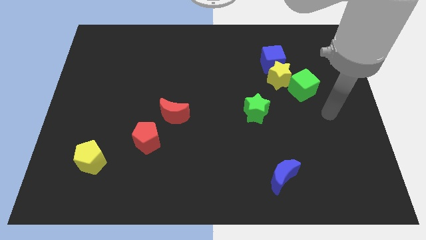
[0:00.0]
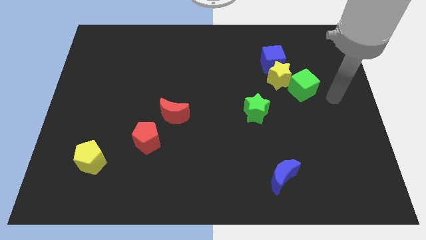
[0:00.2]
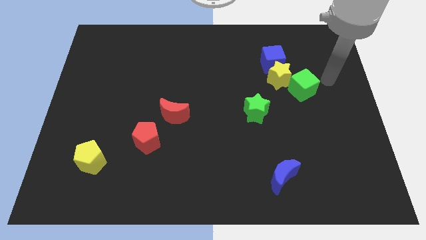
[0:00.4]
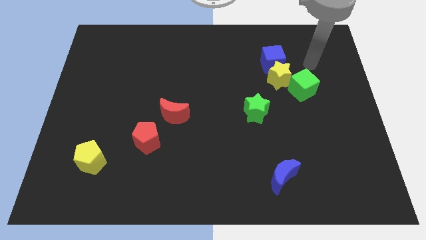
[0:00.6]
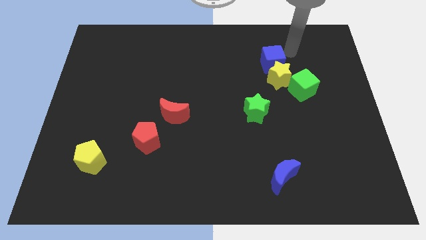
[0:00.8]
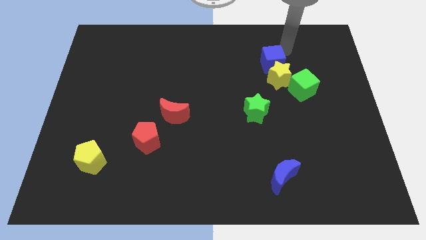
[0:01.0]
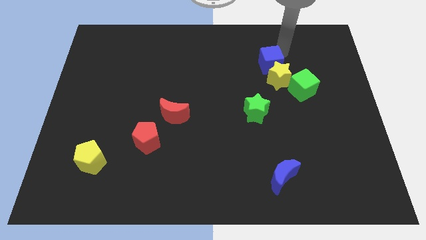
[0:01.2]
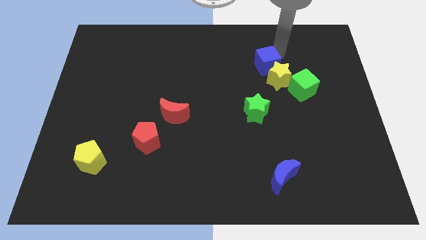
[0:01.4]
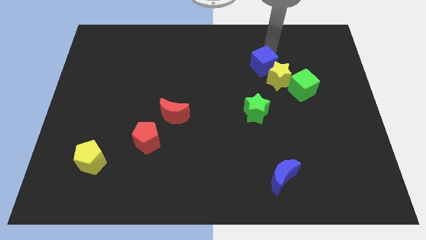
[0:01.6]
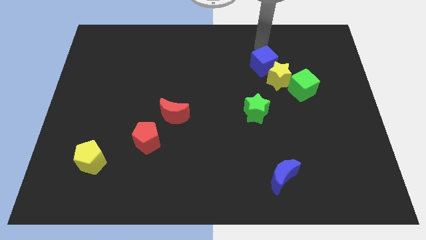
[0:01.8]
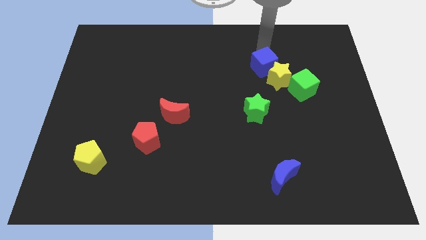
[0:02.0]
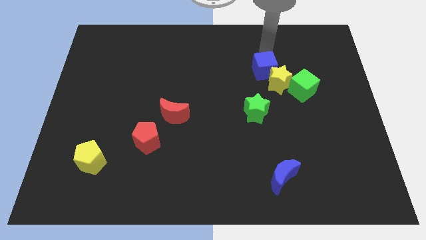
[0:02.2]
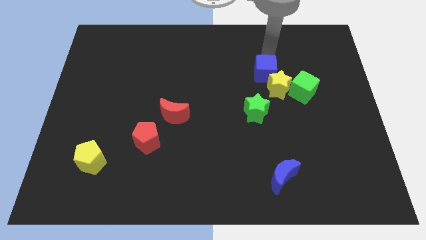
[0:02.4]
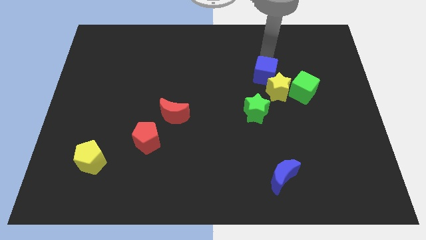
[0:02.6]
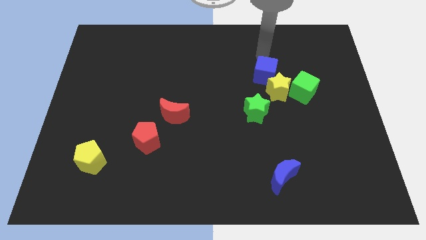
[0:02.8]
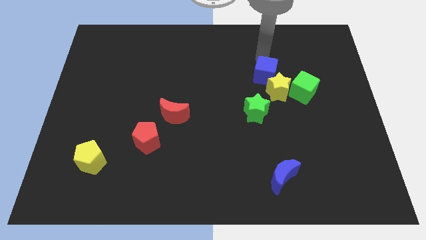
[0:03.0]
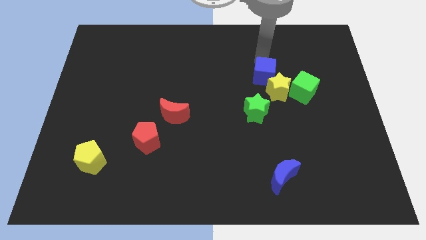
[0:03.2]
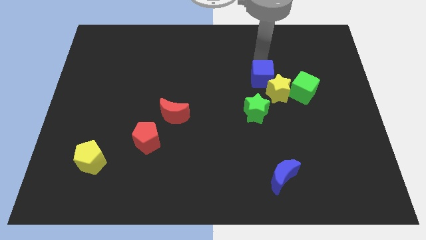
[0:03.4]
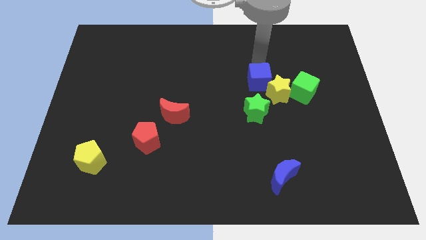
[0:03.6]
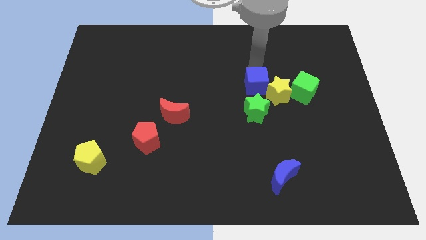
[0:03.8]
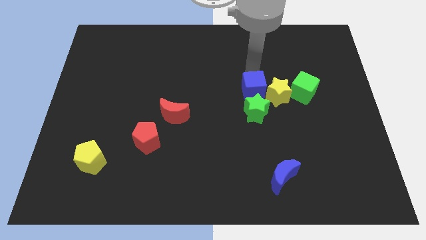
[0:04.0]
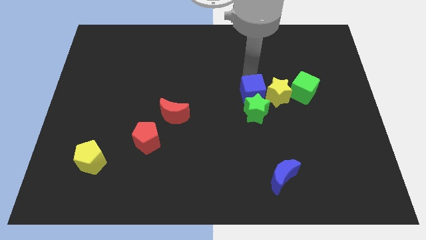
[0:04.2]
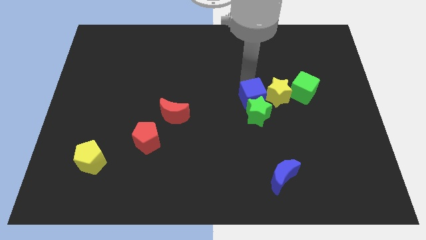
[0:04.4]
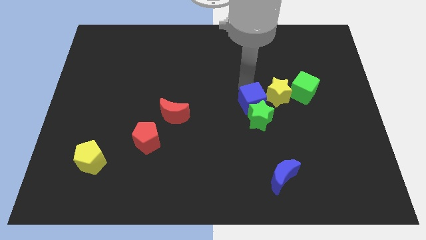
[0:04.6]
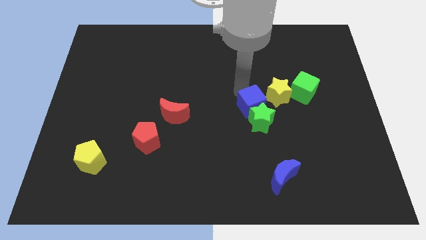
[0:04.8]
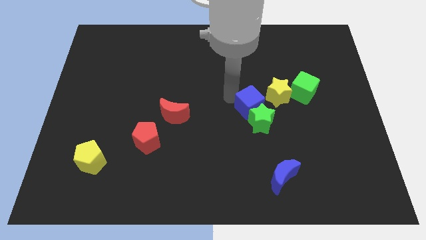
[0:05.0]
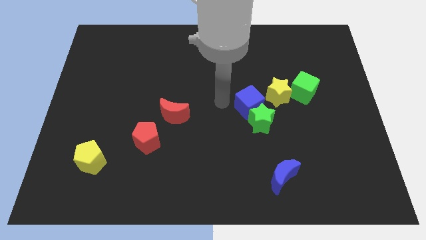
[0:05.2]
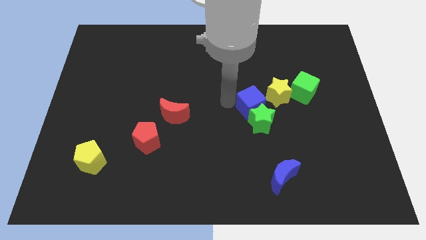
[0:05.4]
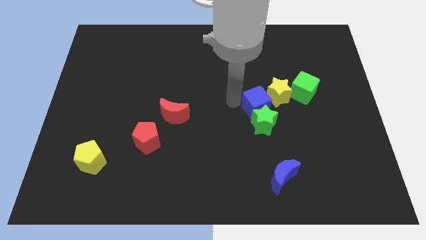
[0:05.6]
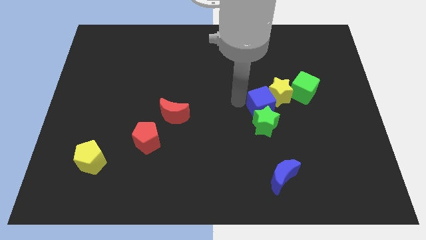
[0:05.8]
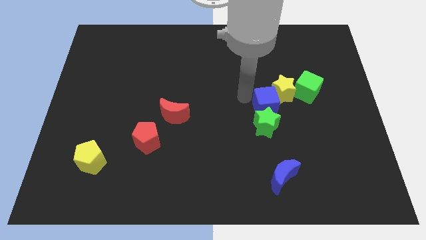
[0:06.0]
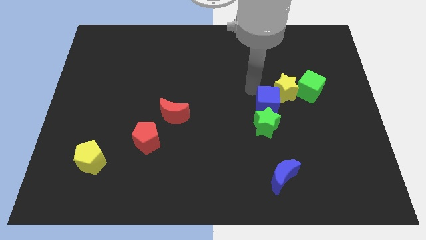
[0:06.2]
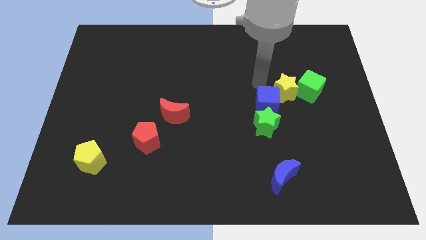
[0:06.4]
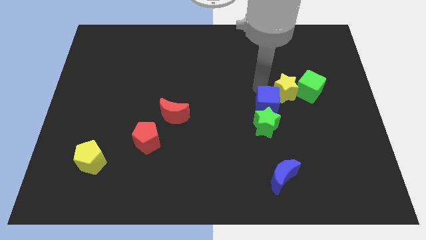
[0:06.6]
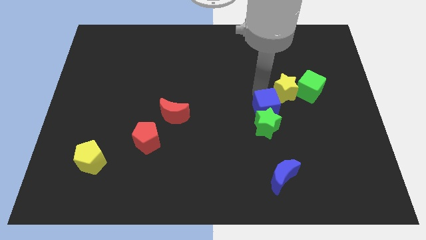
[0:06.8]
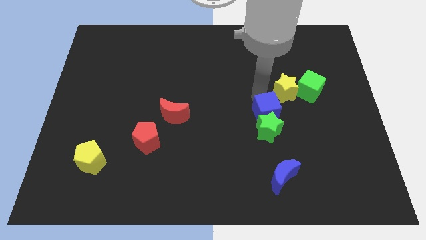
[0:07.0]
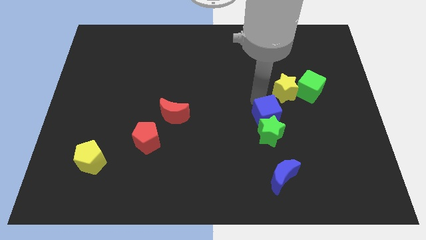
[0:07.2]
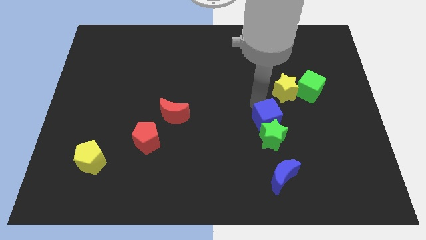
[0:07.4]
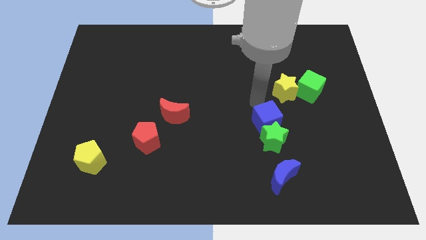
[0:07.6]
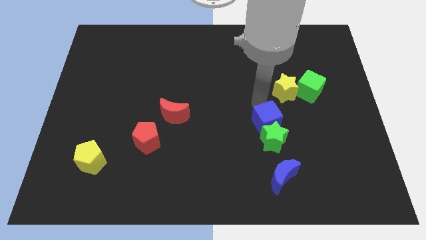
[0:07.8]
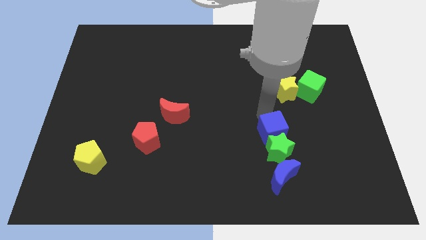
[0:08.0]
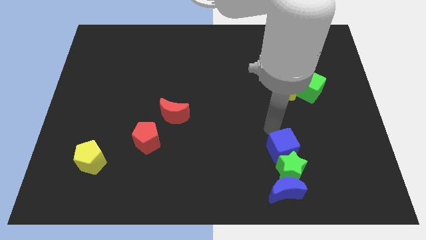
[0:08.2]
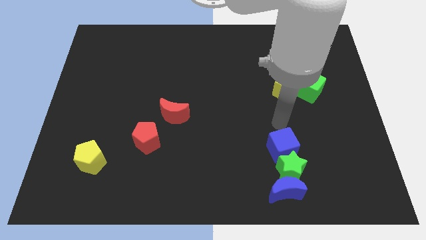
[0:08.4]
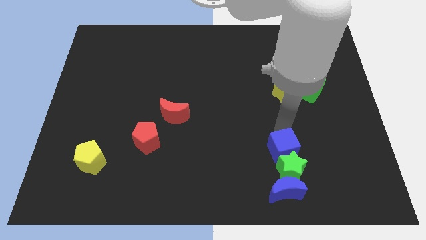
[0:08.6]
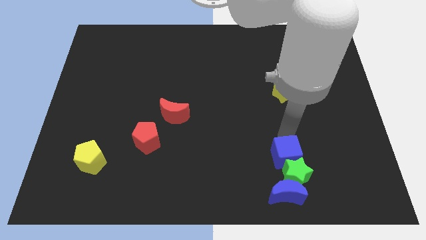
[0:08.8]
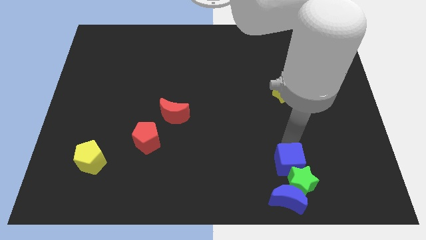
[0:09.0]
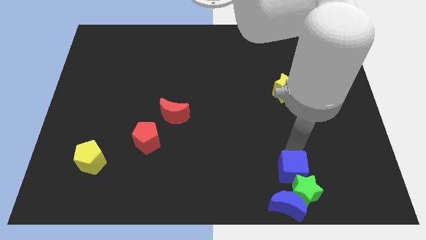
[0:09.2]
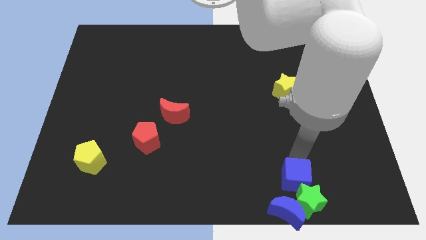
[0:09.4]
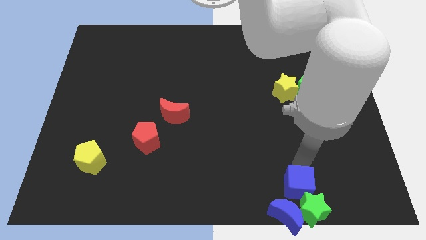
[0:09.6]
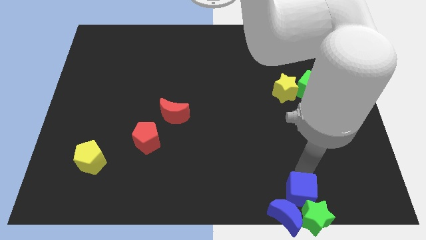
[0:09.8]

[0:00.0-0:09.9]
slide the blue cube next to the blue moon

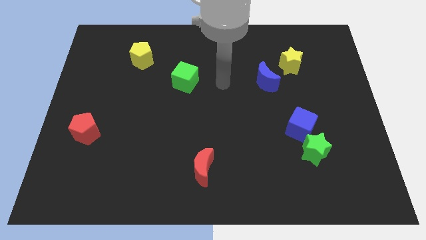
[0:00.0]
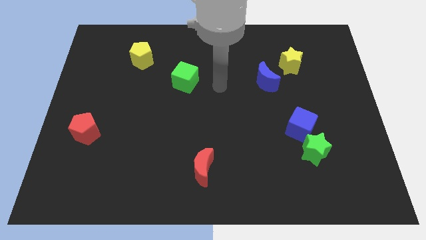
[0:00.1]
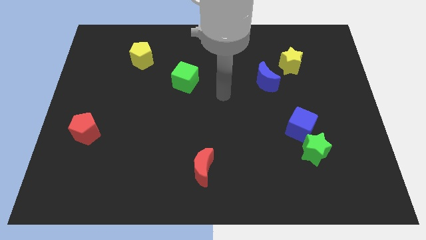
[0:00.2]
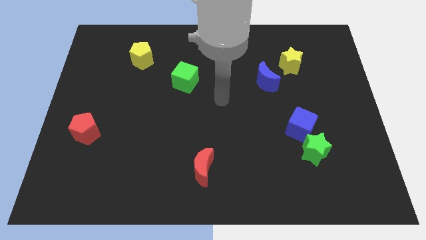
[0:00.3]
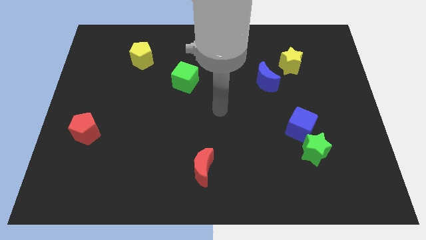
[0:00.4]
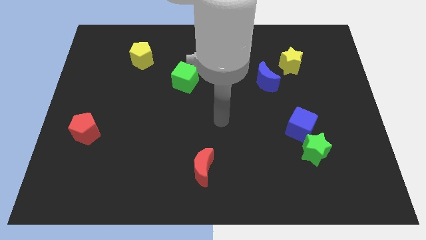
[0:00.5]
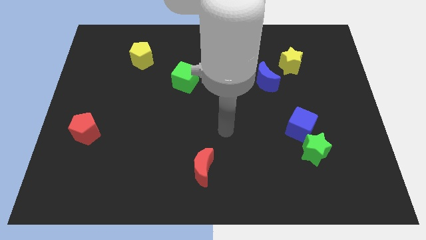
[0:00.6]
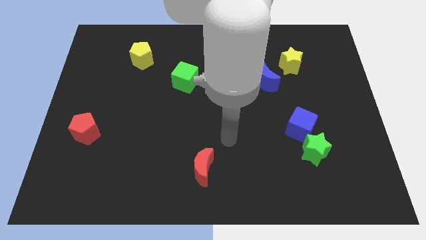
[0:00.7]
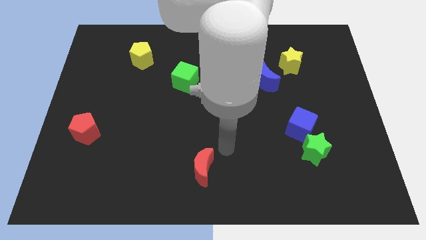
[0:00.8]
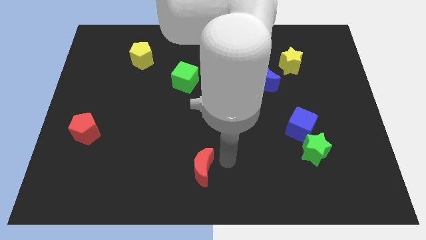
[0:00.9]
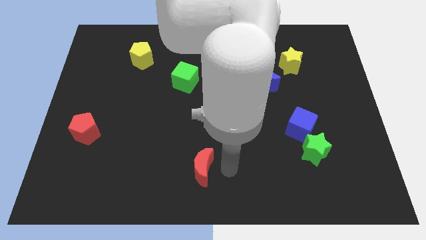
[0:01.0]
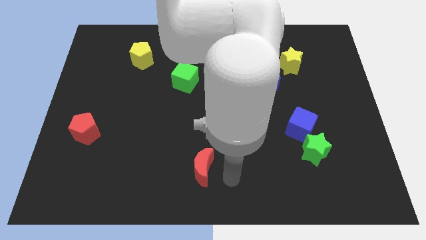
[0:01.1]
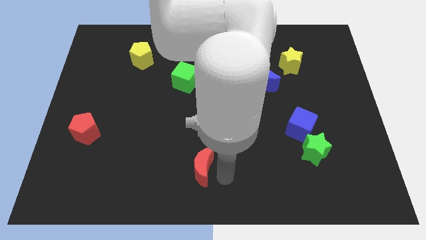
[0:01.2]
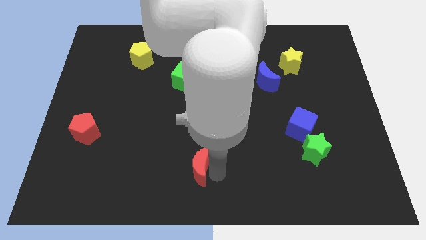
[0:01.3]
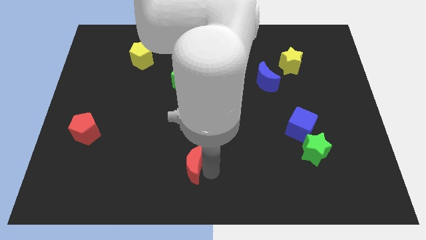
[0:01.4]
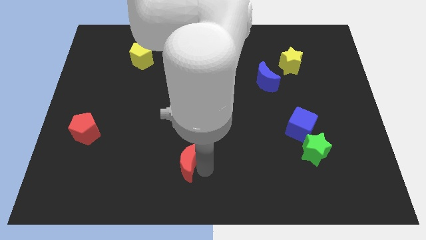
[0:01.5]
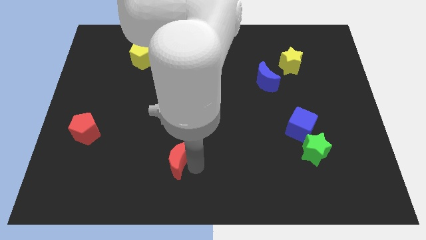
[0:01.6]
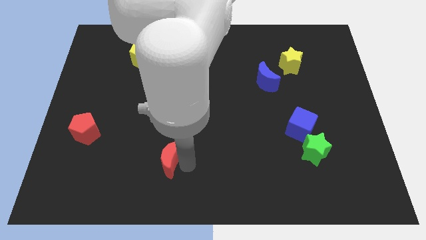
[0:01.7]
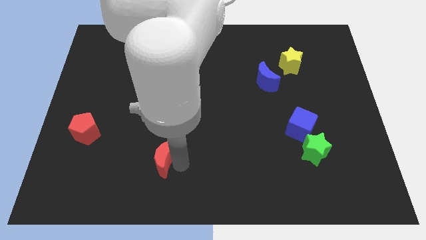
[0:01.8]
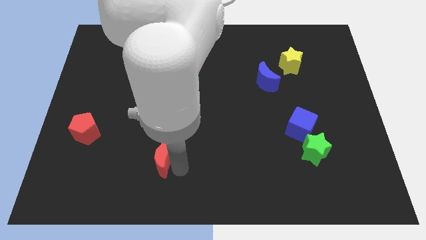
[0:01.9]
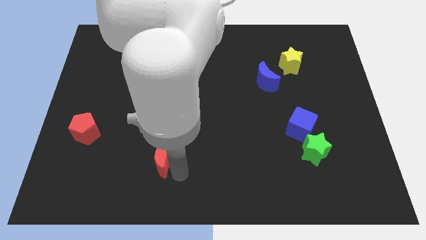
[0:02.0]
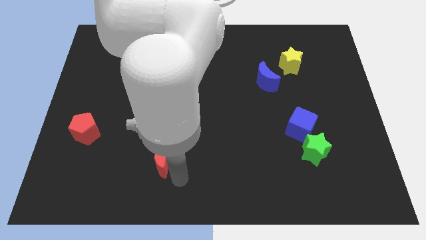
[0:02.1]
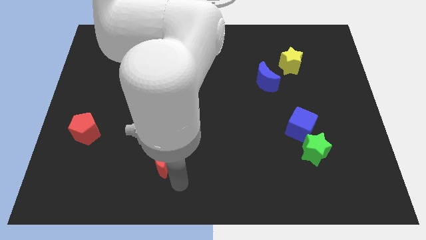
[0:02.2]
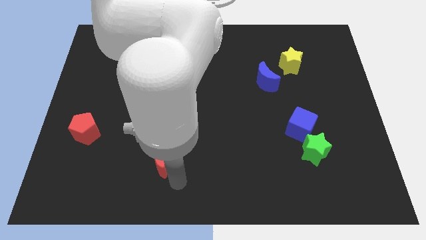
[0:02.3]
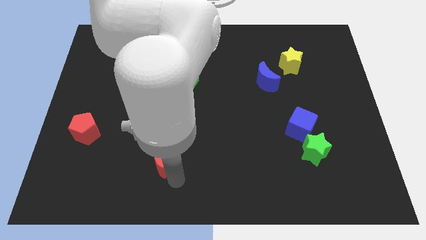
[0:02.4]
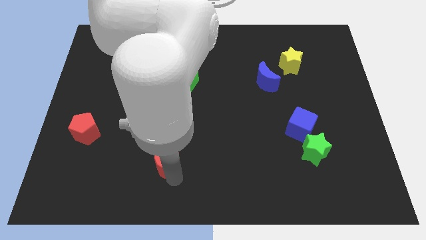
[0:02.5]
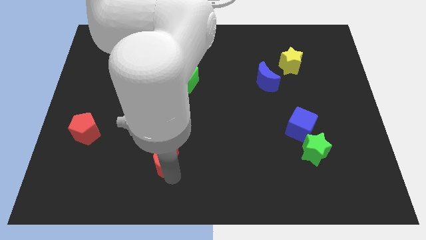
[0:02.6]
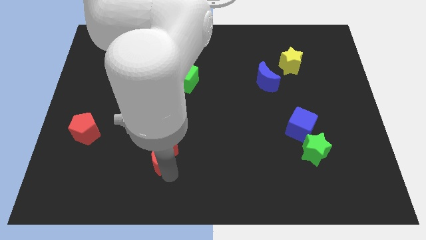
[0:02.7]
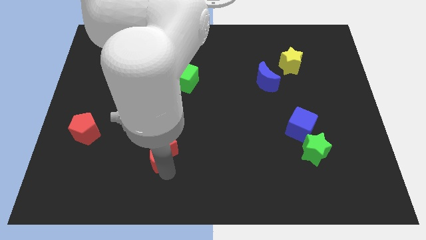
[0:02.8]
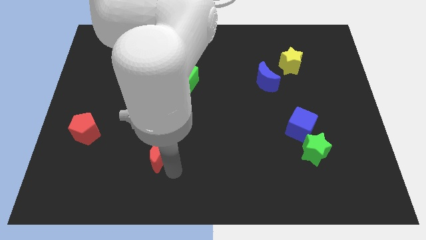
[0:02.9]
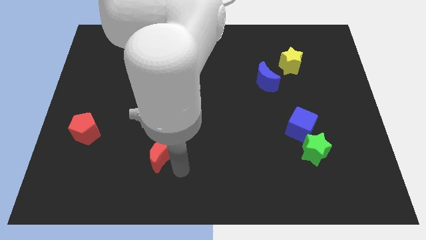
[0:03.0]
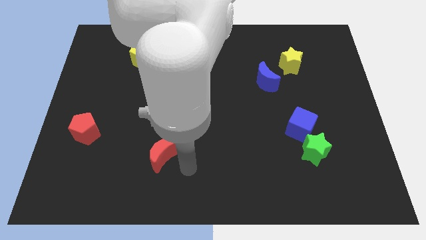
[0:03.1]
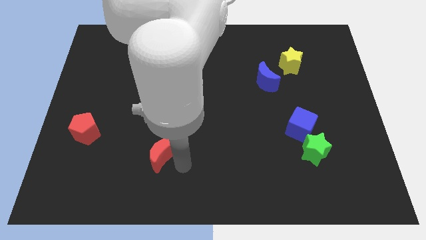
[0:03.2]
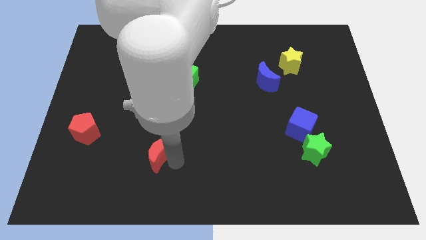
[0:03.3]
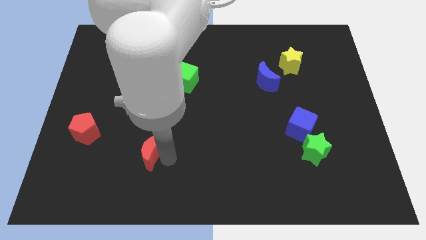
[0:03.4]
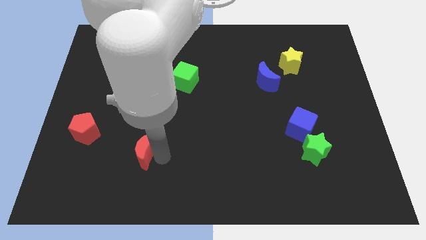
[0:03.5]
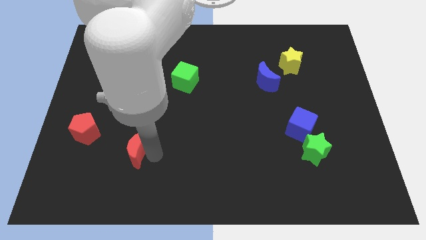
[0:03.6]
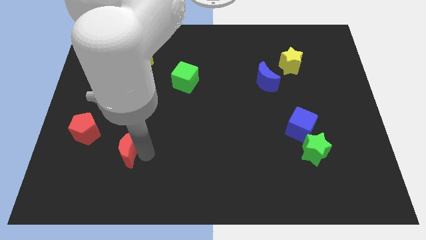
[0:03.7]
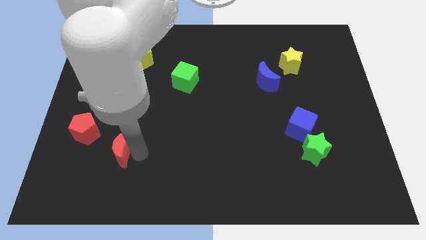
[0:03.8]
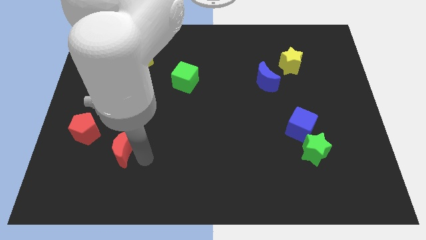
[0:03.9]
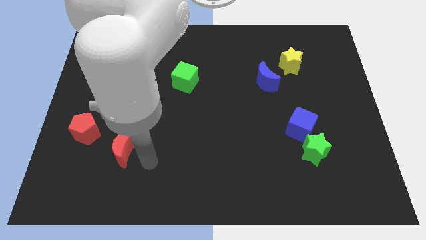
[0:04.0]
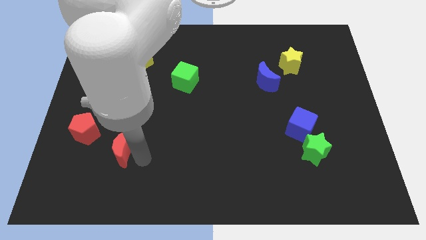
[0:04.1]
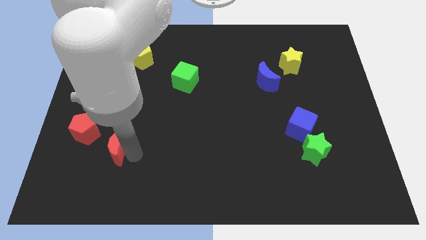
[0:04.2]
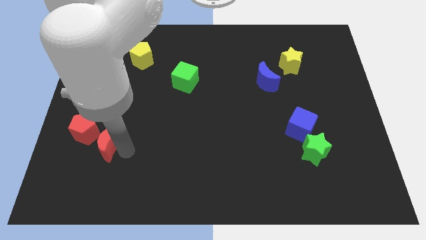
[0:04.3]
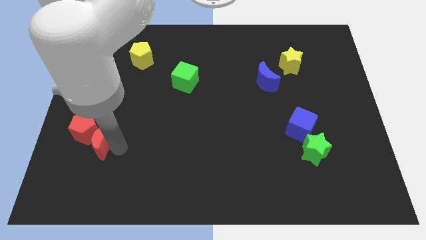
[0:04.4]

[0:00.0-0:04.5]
push the red moon towards the red pentagon
